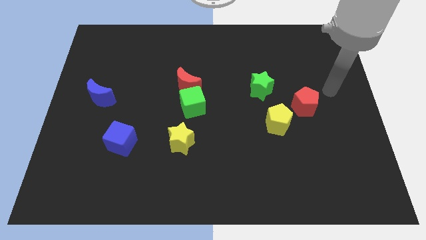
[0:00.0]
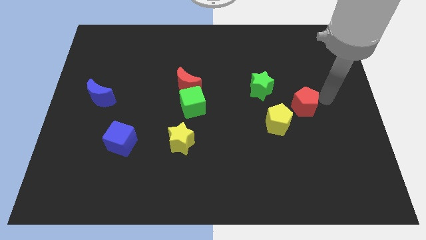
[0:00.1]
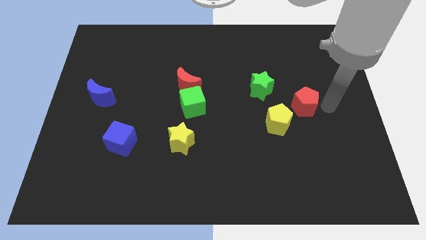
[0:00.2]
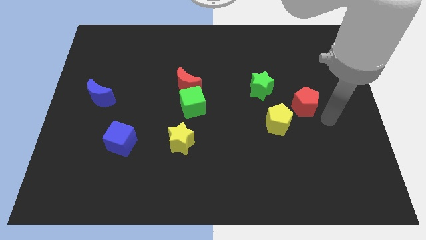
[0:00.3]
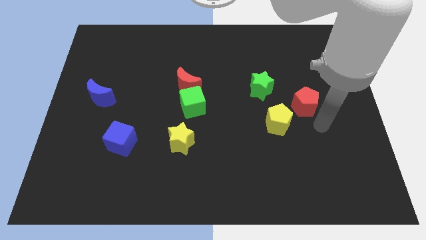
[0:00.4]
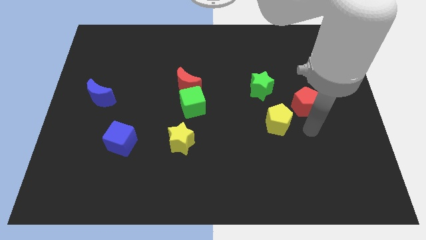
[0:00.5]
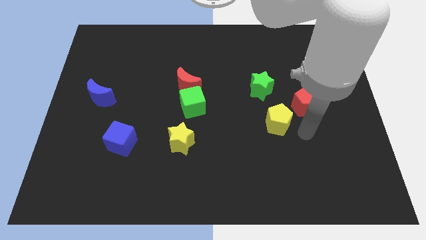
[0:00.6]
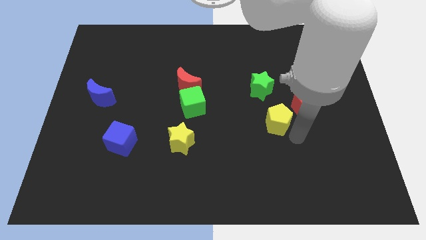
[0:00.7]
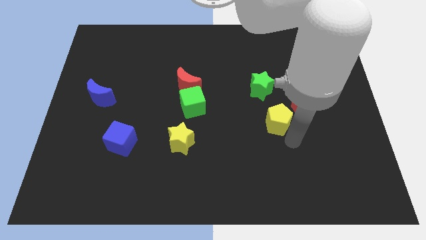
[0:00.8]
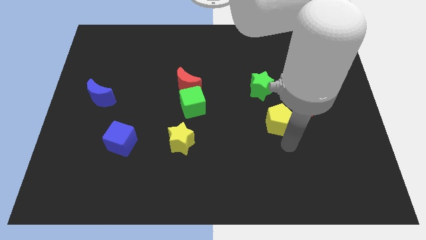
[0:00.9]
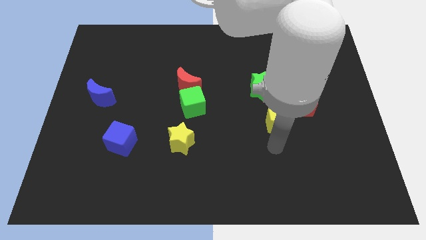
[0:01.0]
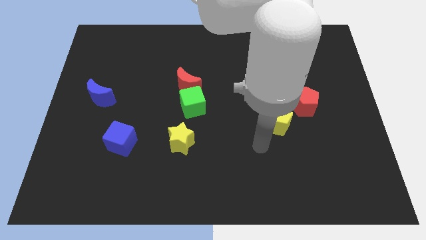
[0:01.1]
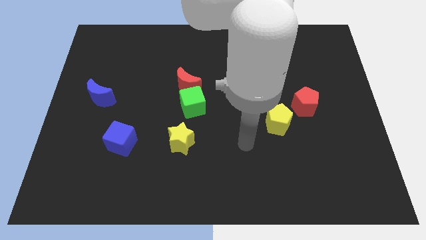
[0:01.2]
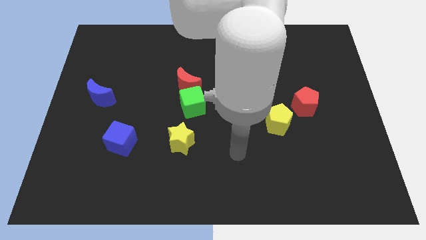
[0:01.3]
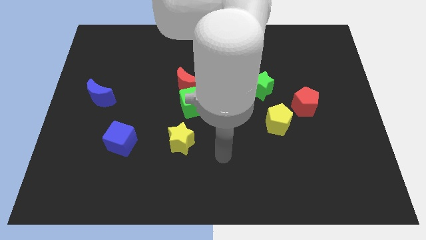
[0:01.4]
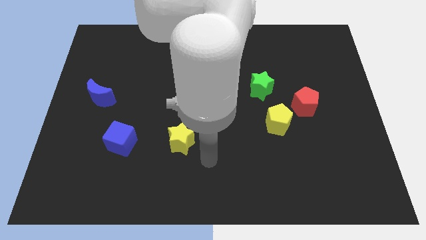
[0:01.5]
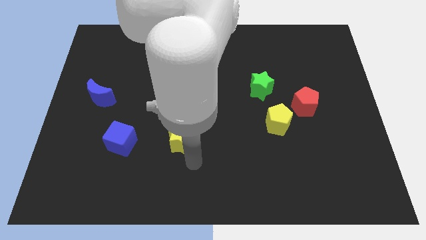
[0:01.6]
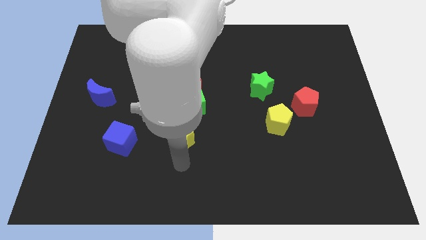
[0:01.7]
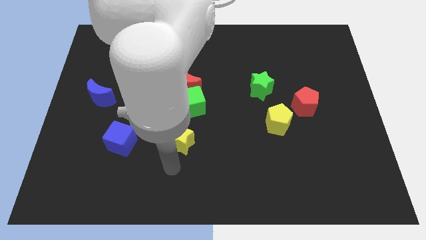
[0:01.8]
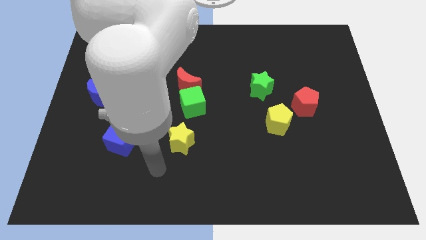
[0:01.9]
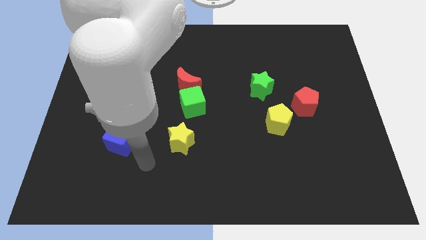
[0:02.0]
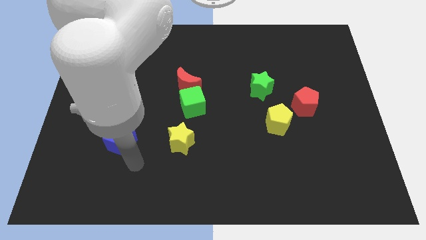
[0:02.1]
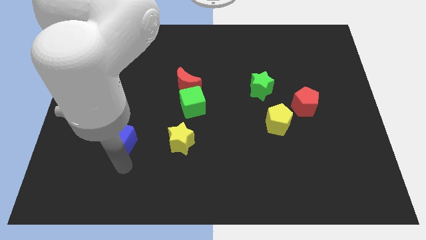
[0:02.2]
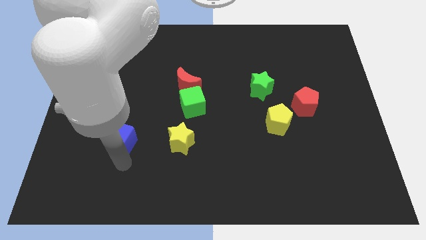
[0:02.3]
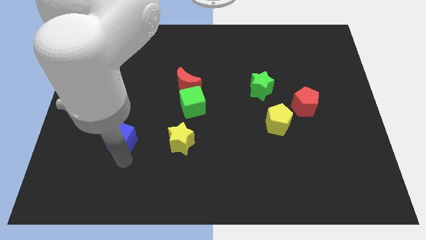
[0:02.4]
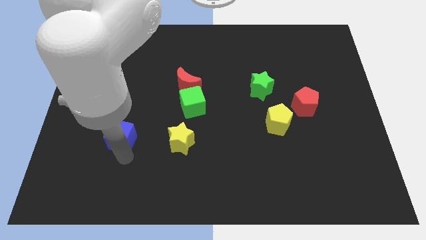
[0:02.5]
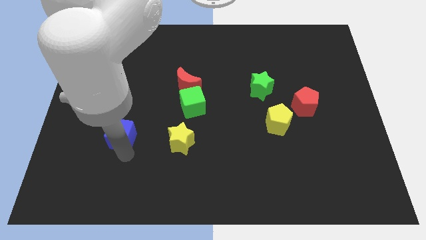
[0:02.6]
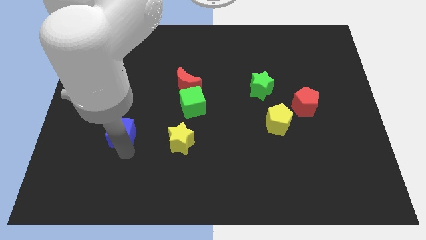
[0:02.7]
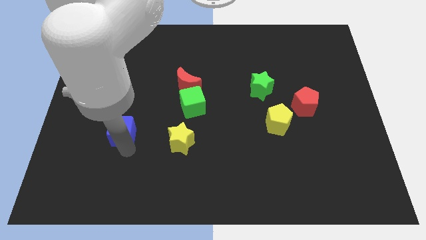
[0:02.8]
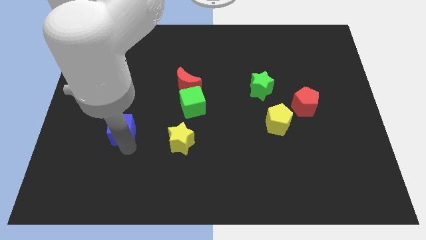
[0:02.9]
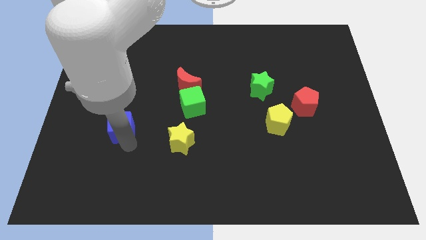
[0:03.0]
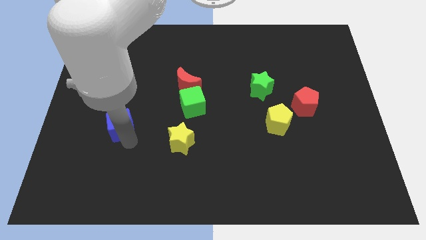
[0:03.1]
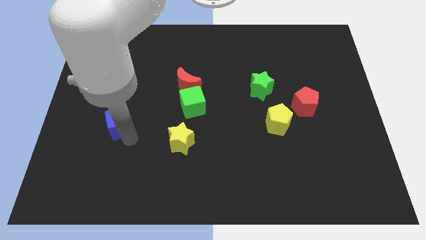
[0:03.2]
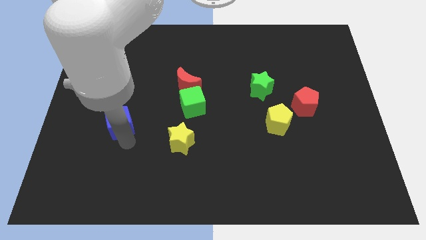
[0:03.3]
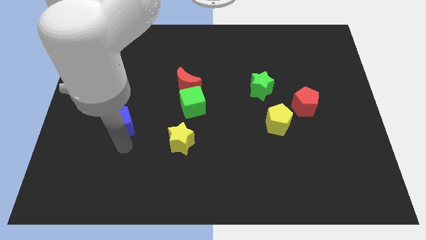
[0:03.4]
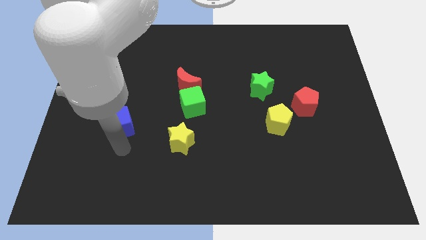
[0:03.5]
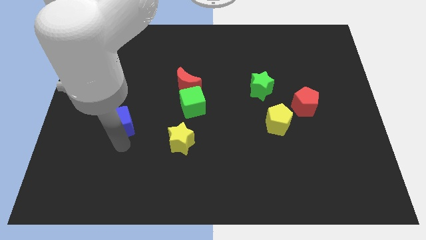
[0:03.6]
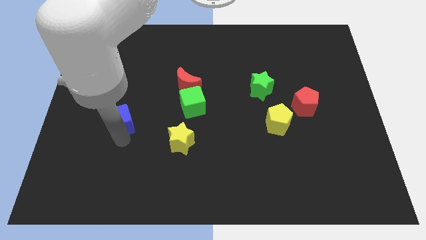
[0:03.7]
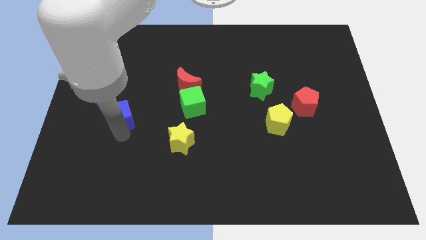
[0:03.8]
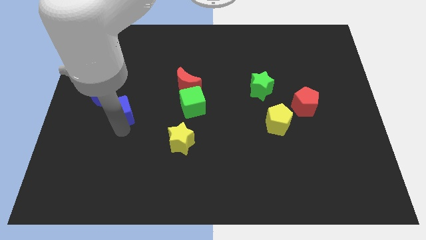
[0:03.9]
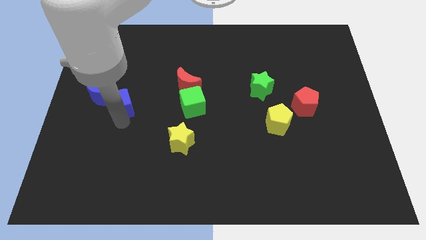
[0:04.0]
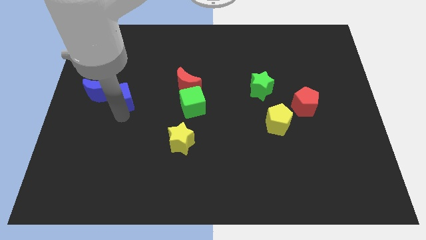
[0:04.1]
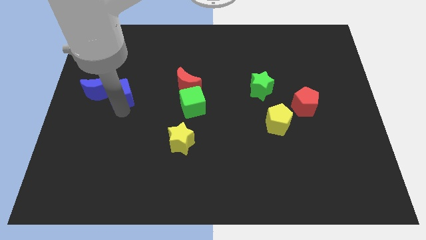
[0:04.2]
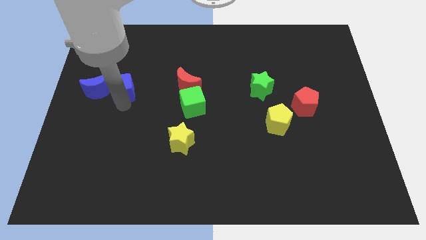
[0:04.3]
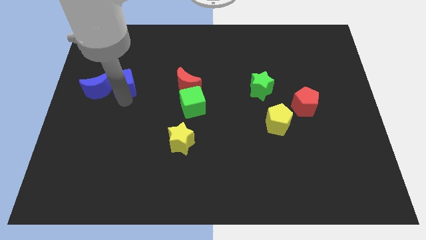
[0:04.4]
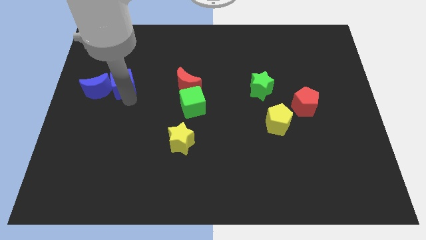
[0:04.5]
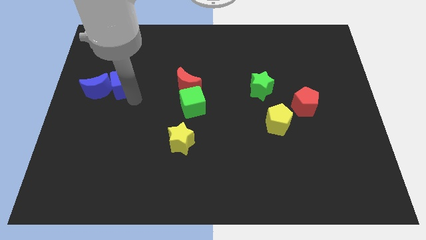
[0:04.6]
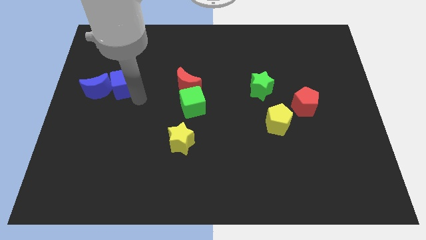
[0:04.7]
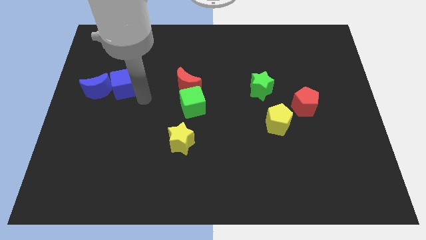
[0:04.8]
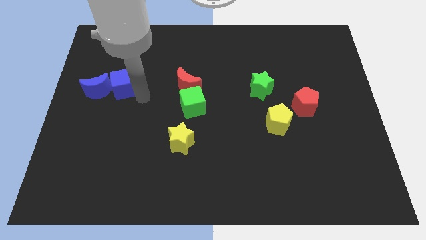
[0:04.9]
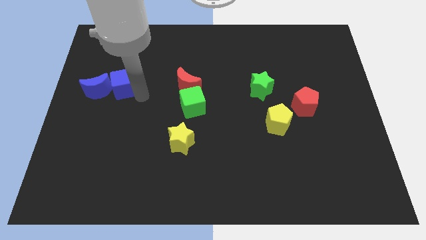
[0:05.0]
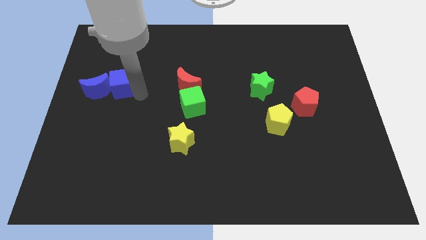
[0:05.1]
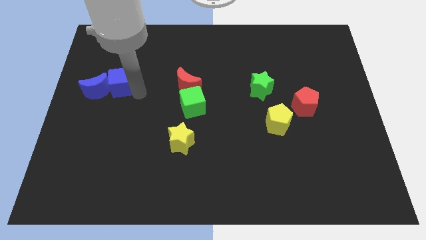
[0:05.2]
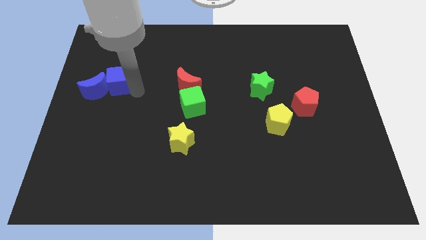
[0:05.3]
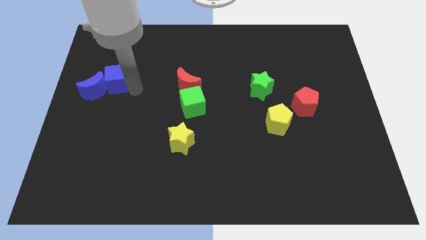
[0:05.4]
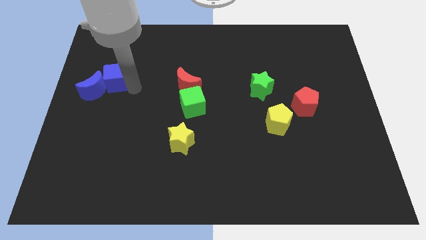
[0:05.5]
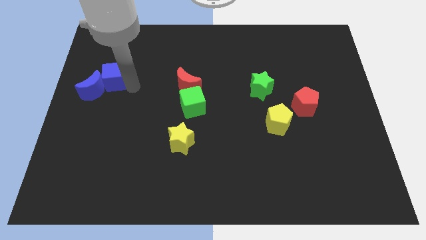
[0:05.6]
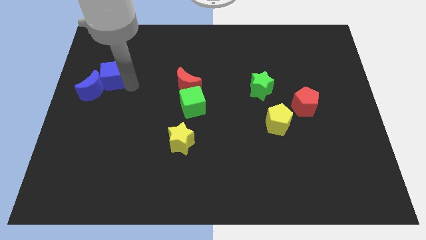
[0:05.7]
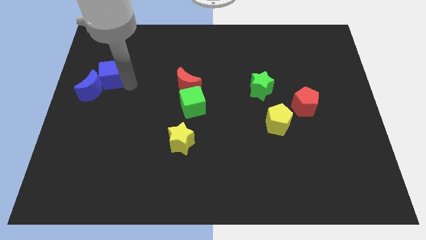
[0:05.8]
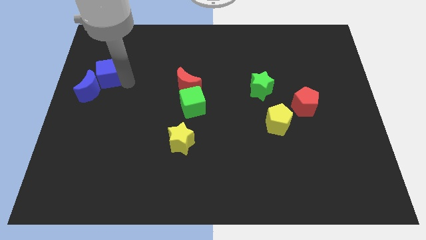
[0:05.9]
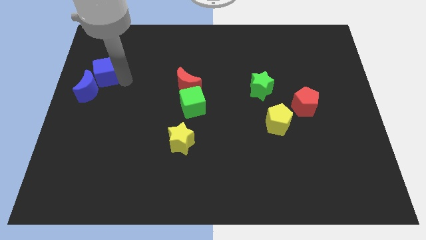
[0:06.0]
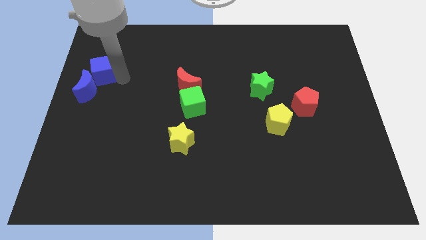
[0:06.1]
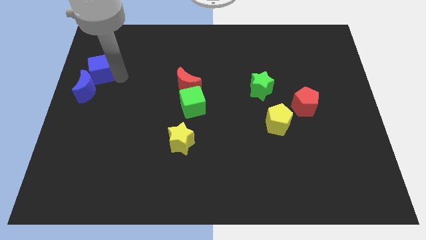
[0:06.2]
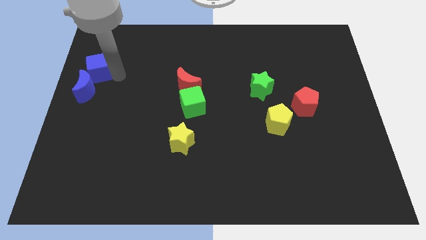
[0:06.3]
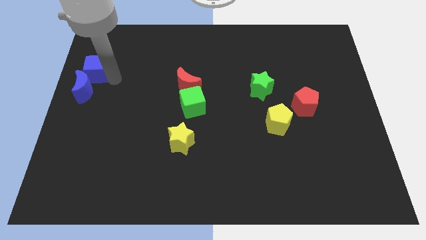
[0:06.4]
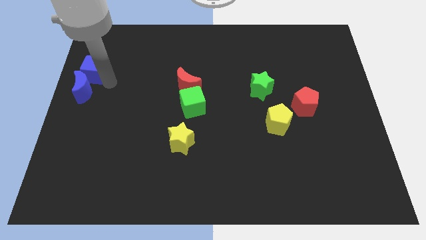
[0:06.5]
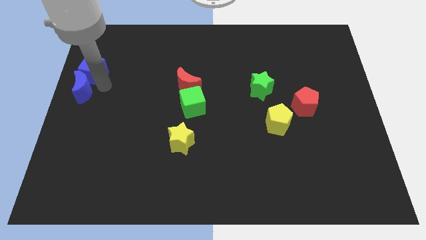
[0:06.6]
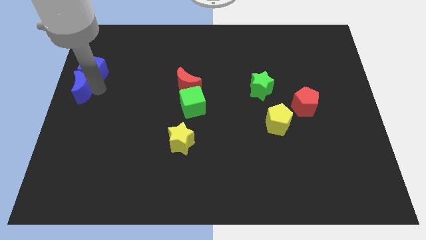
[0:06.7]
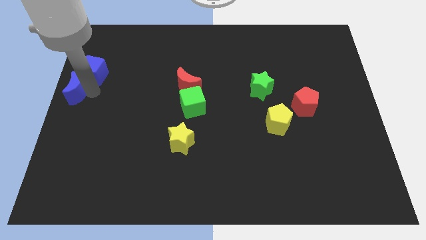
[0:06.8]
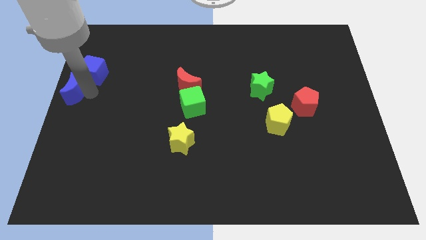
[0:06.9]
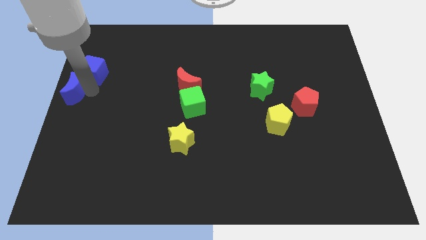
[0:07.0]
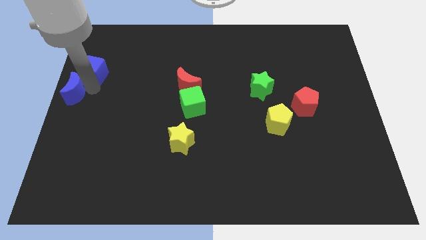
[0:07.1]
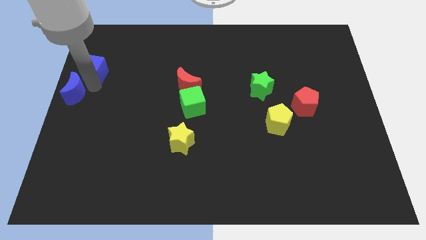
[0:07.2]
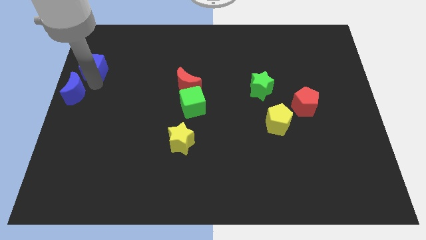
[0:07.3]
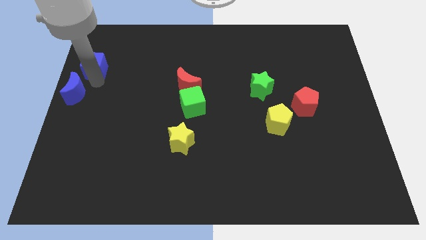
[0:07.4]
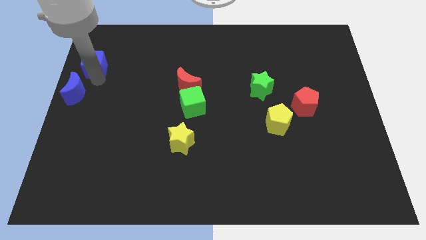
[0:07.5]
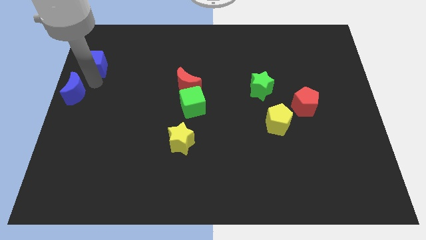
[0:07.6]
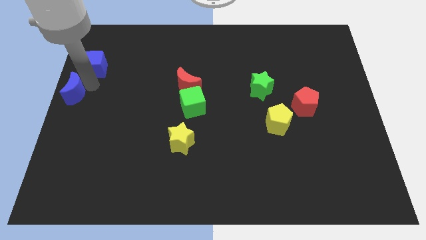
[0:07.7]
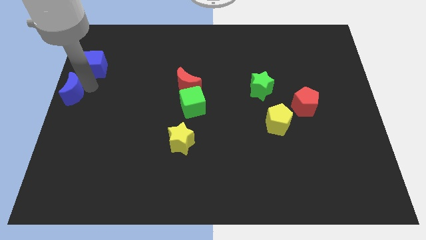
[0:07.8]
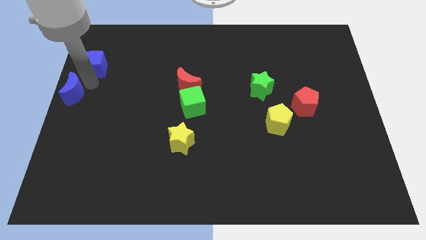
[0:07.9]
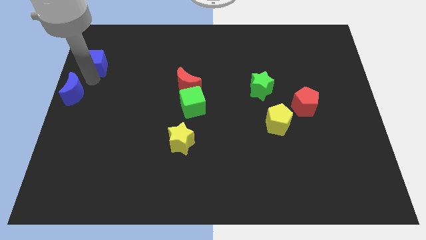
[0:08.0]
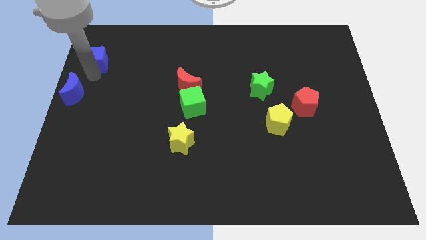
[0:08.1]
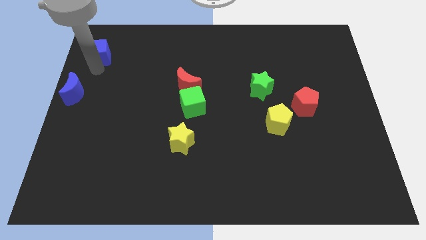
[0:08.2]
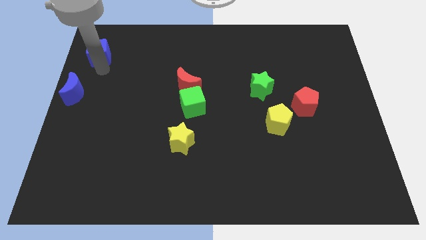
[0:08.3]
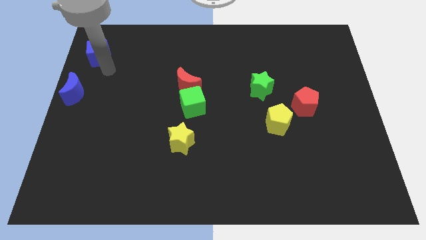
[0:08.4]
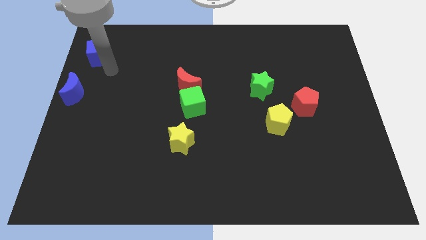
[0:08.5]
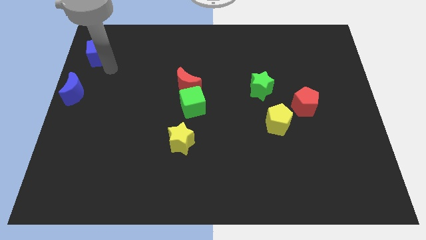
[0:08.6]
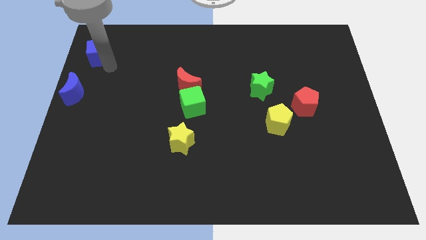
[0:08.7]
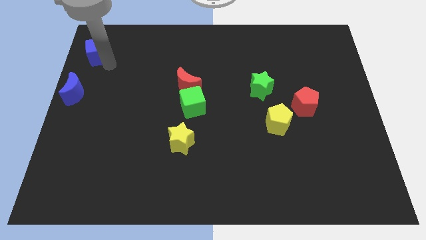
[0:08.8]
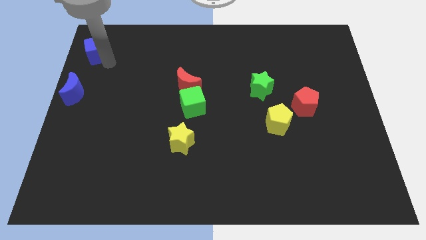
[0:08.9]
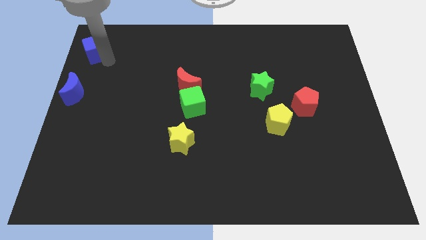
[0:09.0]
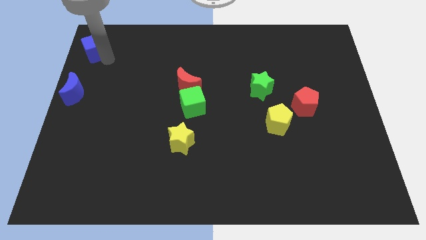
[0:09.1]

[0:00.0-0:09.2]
push the blue cube to the top left corner
